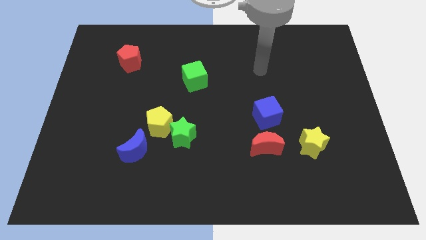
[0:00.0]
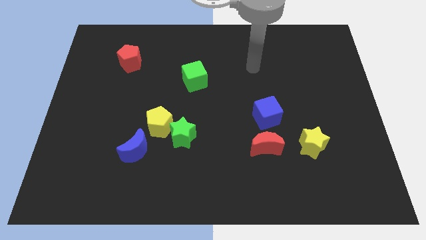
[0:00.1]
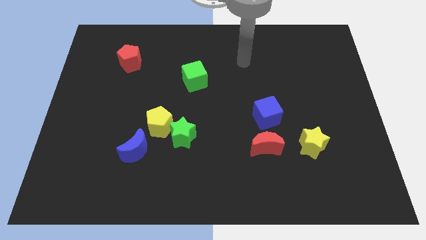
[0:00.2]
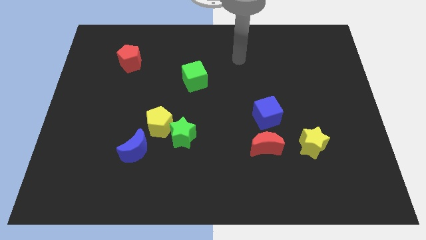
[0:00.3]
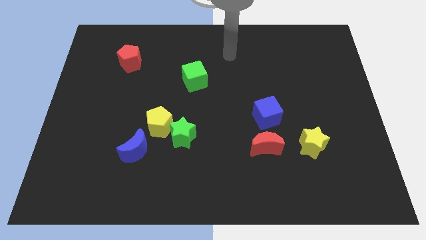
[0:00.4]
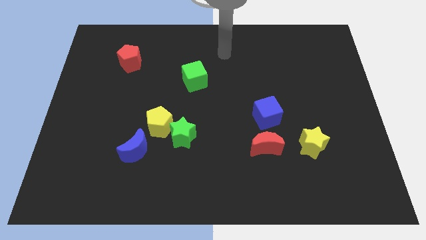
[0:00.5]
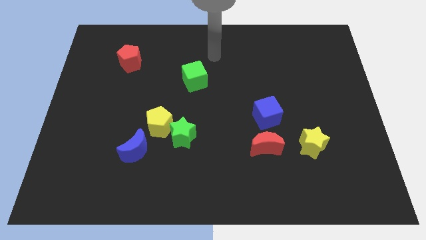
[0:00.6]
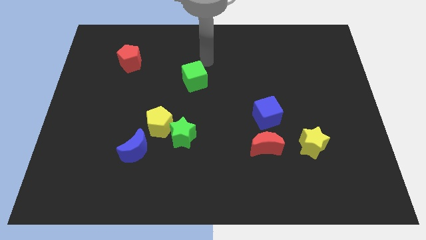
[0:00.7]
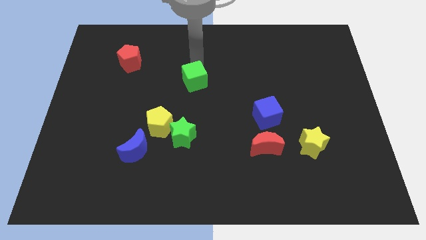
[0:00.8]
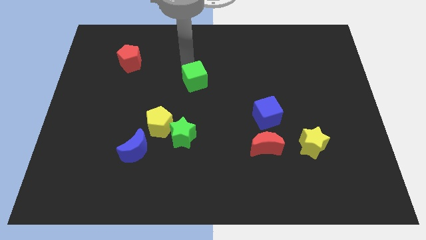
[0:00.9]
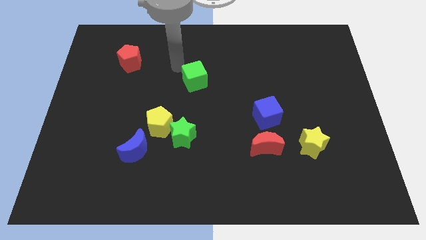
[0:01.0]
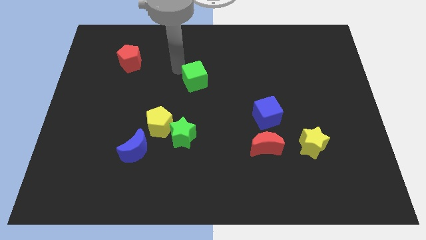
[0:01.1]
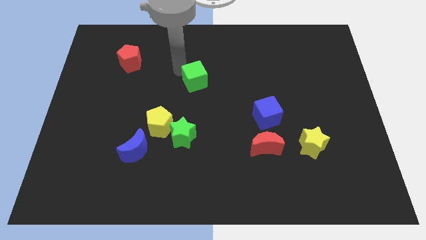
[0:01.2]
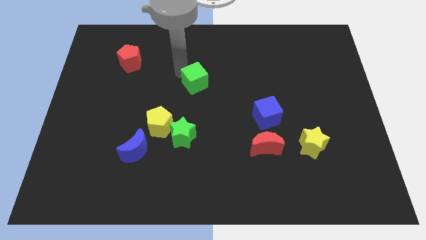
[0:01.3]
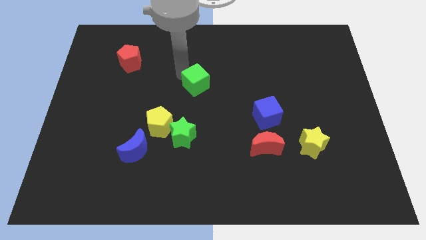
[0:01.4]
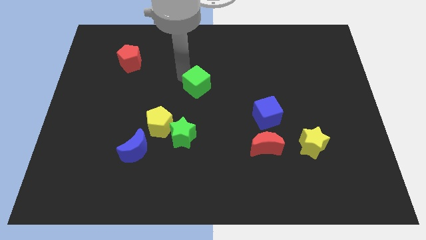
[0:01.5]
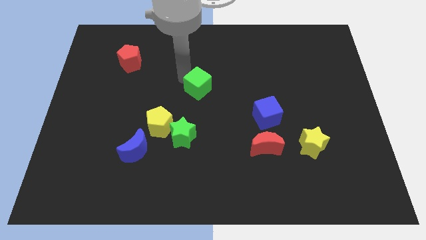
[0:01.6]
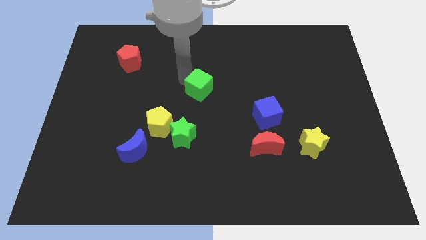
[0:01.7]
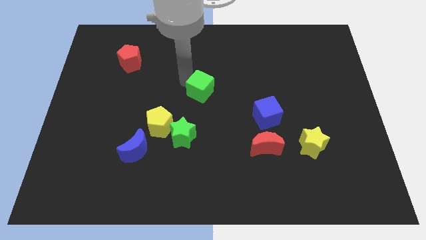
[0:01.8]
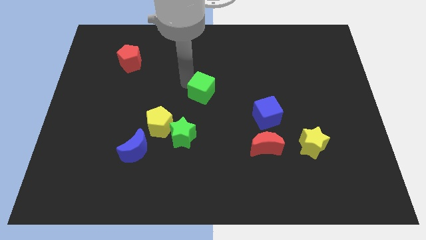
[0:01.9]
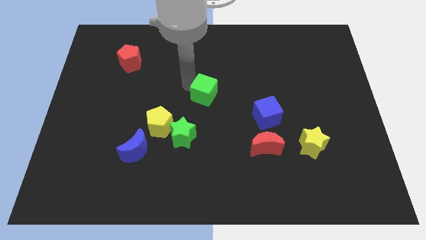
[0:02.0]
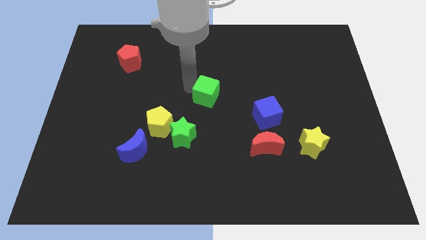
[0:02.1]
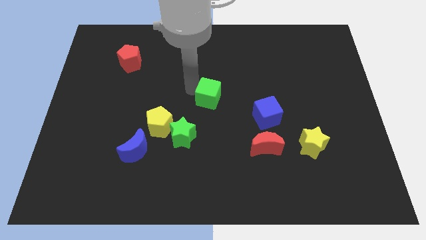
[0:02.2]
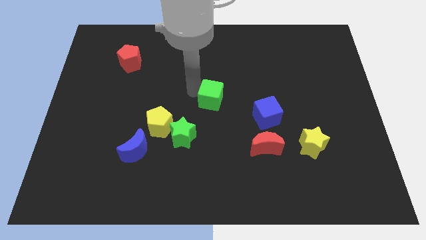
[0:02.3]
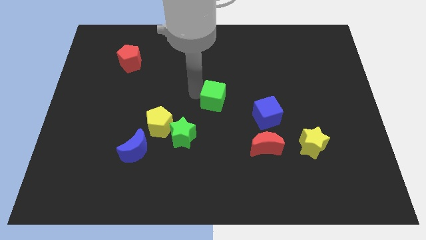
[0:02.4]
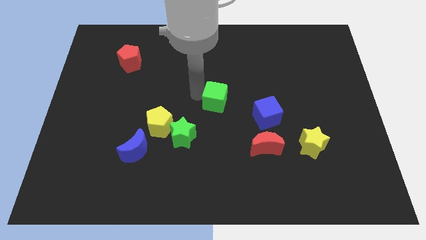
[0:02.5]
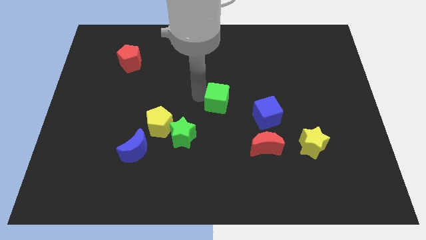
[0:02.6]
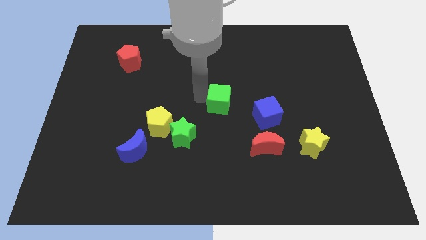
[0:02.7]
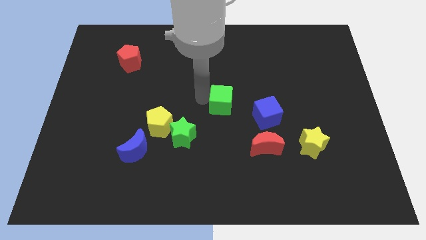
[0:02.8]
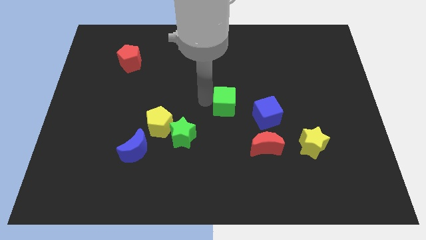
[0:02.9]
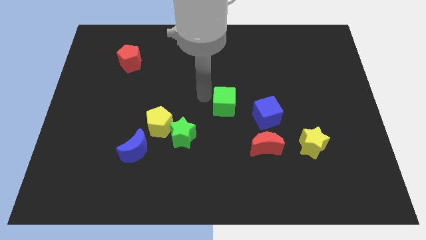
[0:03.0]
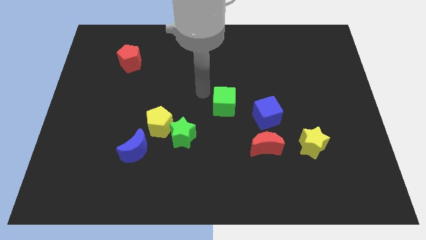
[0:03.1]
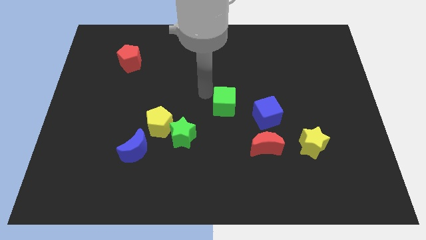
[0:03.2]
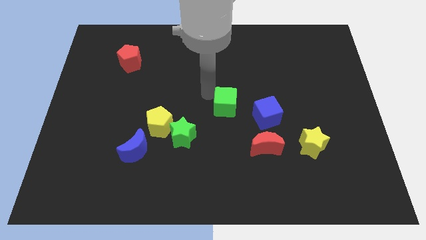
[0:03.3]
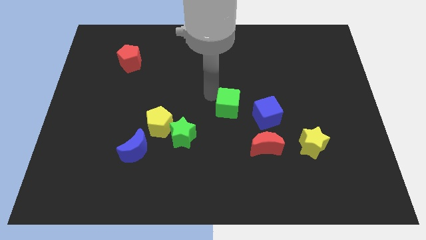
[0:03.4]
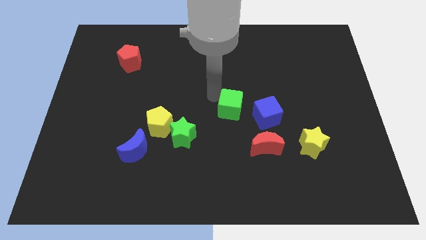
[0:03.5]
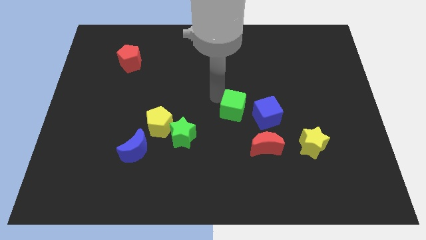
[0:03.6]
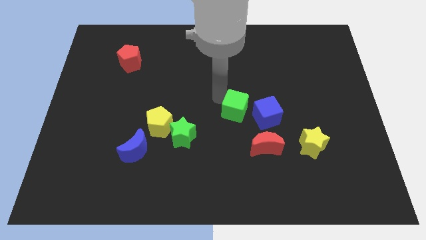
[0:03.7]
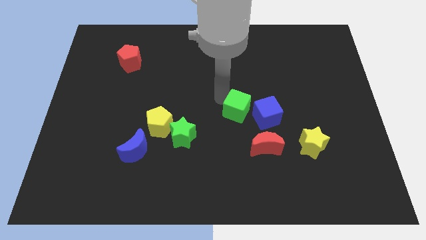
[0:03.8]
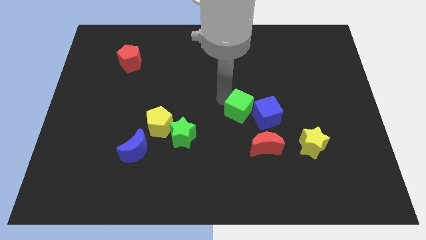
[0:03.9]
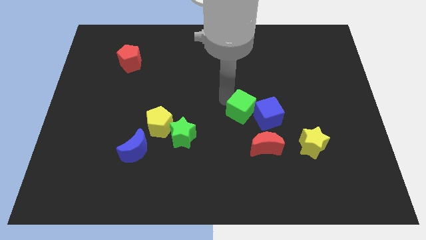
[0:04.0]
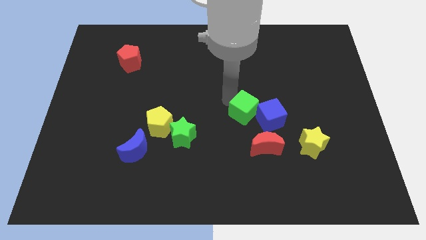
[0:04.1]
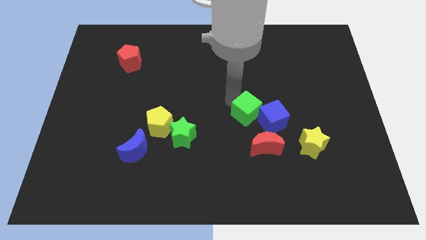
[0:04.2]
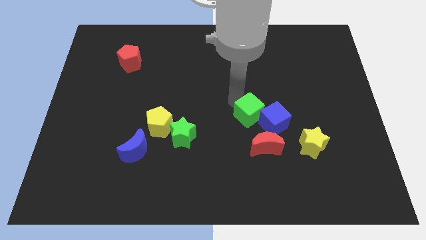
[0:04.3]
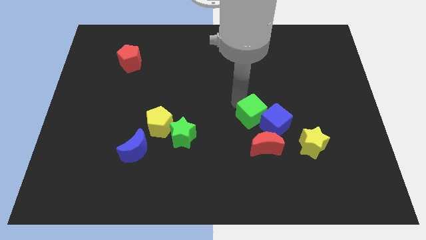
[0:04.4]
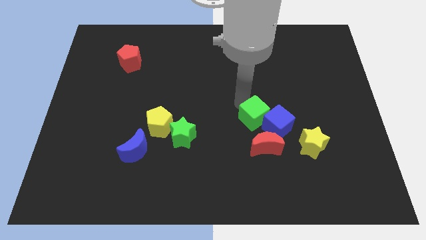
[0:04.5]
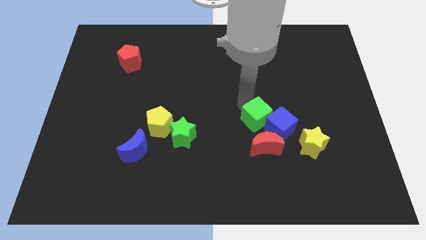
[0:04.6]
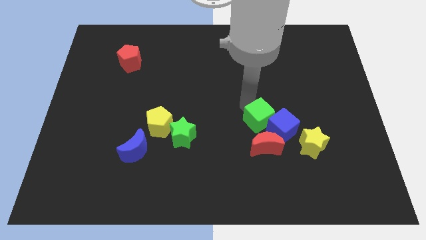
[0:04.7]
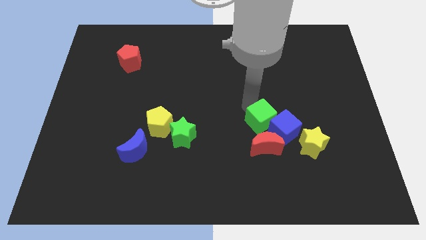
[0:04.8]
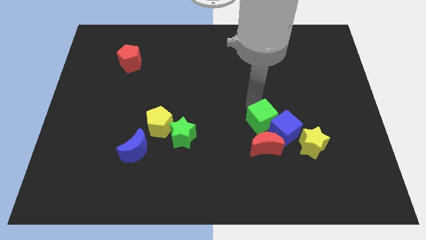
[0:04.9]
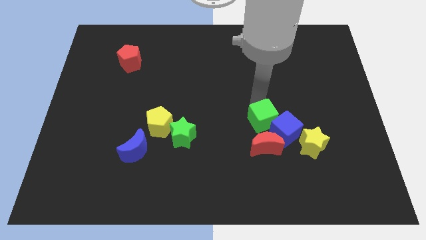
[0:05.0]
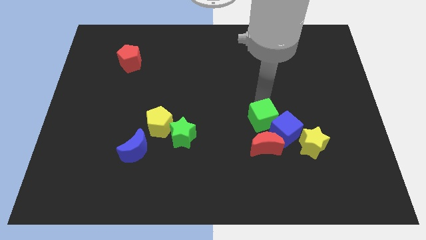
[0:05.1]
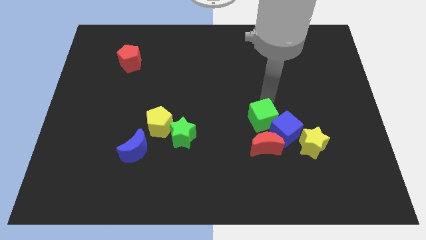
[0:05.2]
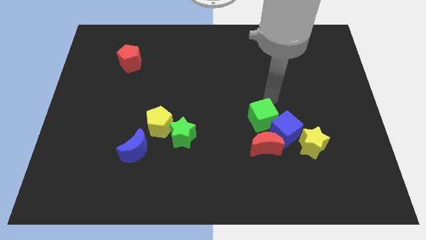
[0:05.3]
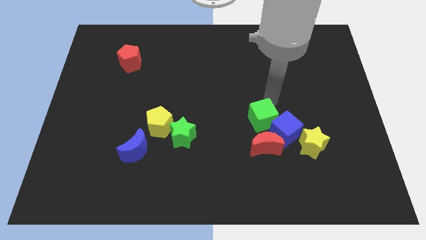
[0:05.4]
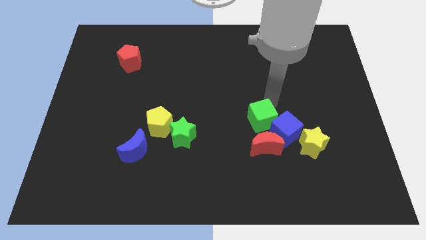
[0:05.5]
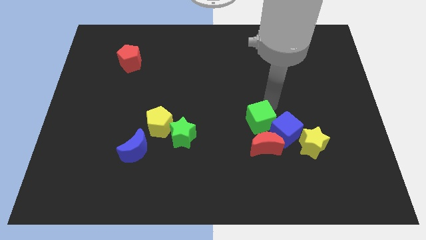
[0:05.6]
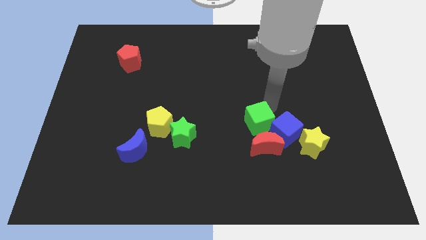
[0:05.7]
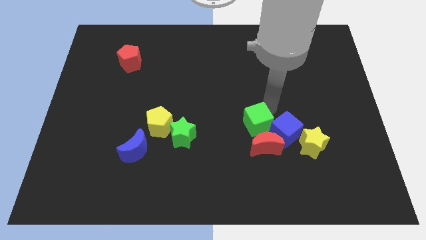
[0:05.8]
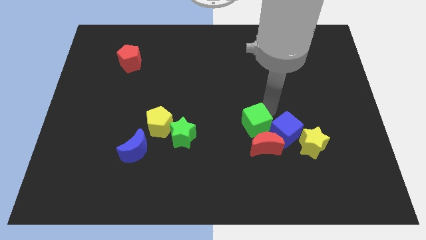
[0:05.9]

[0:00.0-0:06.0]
slide the green cube towards the red moon
